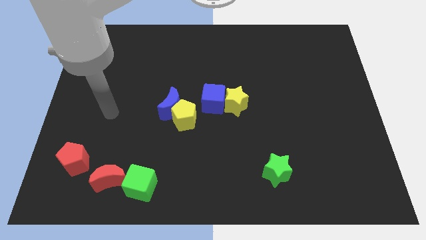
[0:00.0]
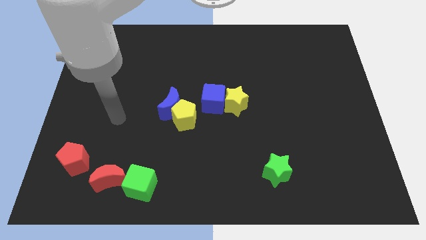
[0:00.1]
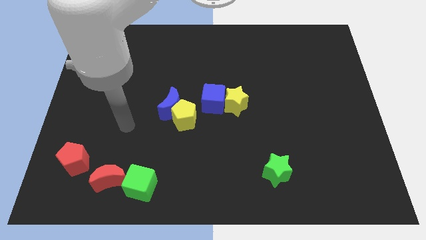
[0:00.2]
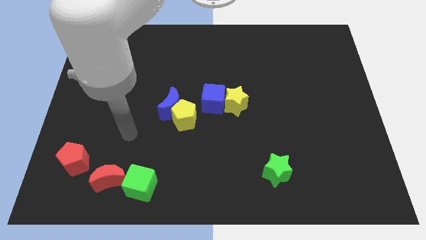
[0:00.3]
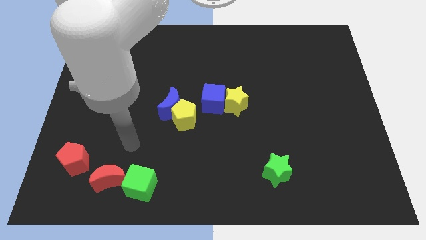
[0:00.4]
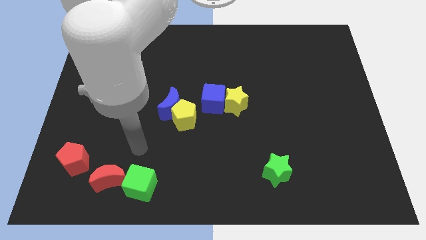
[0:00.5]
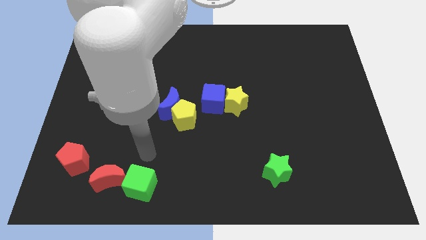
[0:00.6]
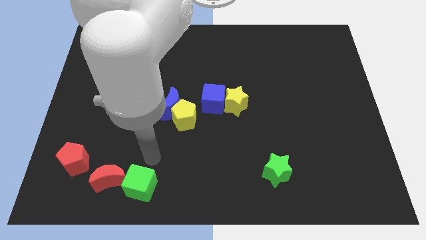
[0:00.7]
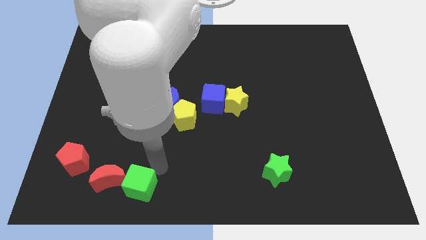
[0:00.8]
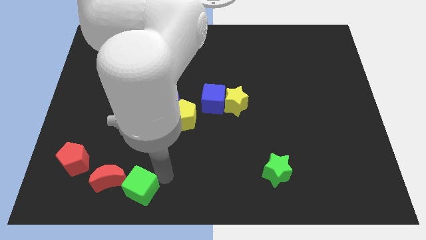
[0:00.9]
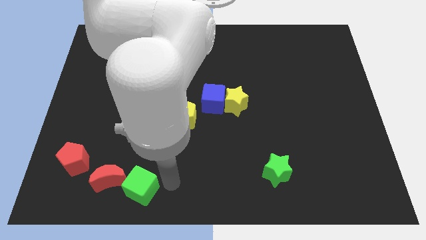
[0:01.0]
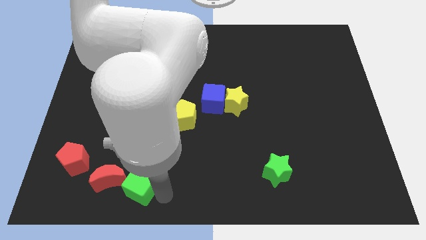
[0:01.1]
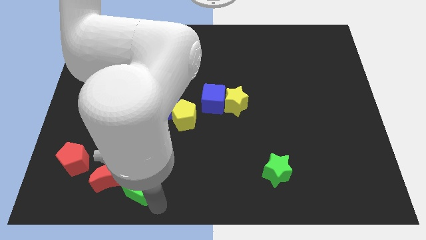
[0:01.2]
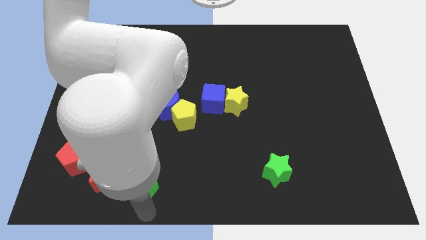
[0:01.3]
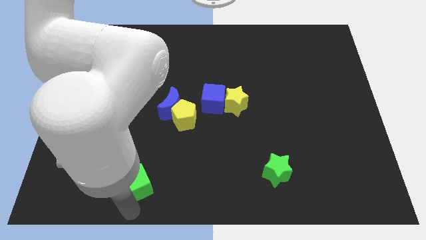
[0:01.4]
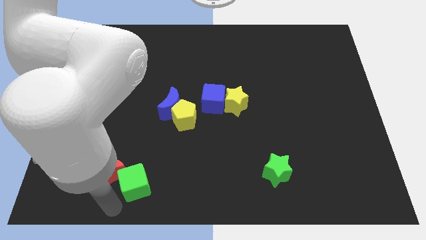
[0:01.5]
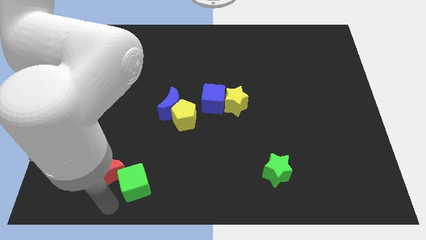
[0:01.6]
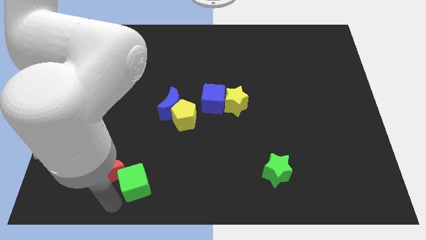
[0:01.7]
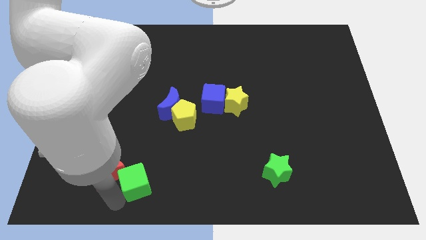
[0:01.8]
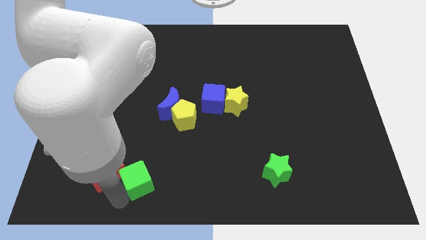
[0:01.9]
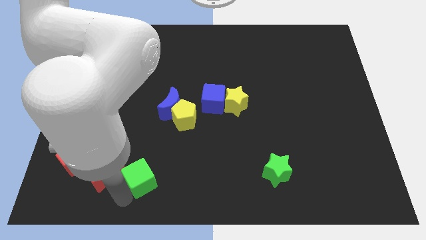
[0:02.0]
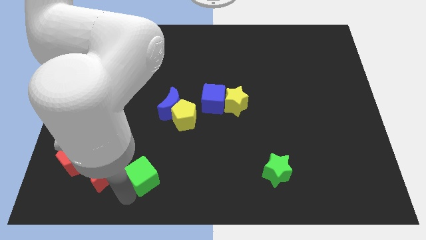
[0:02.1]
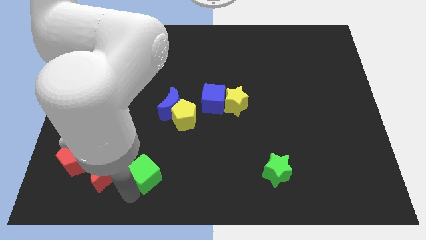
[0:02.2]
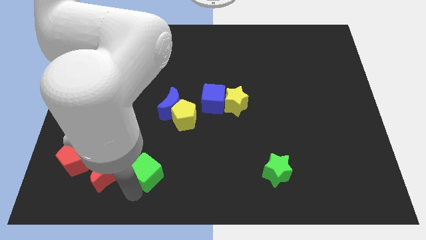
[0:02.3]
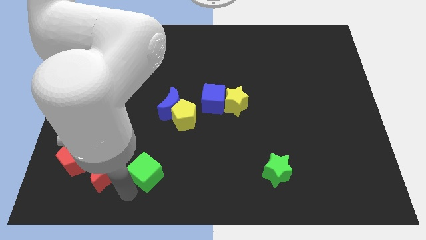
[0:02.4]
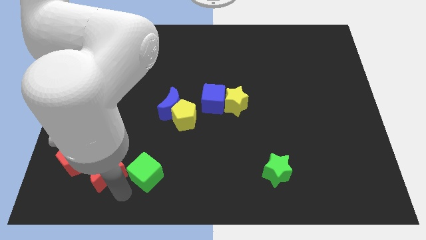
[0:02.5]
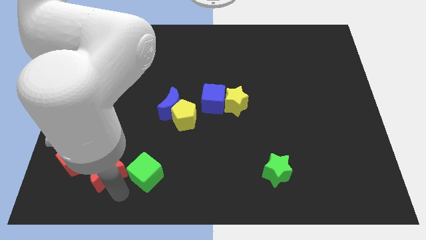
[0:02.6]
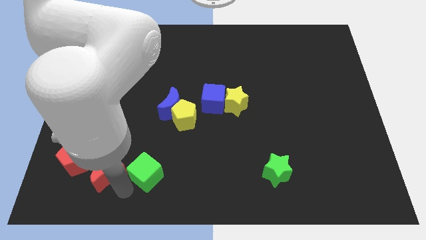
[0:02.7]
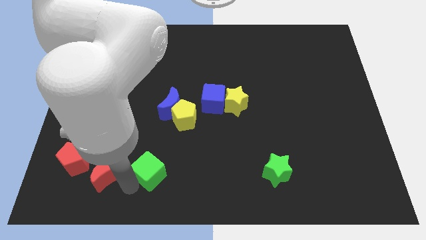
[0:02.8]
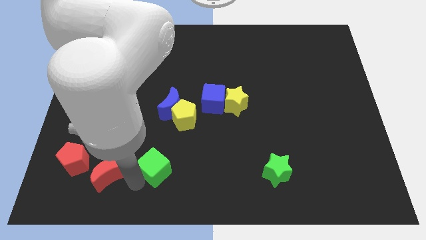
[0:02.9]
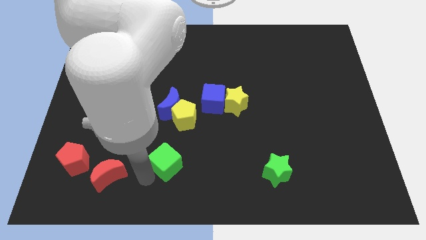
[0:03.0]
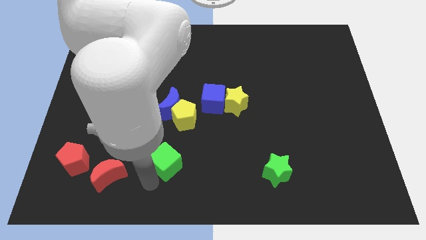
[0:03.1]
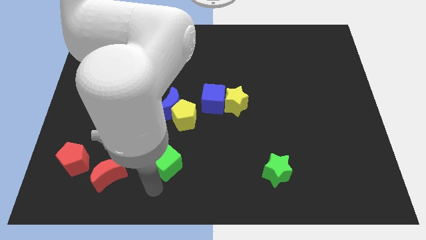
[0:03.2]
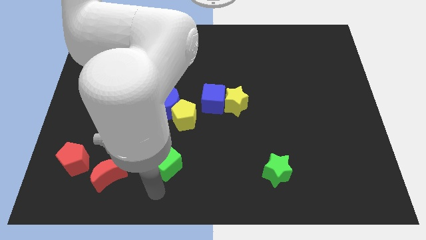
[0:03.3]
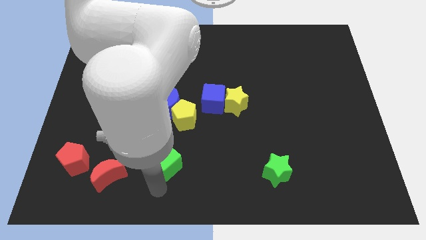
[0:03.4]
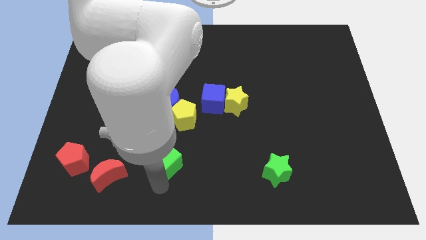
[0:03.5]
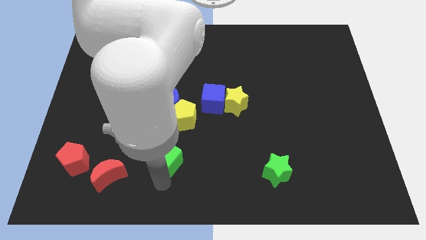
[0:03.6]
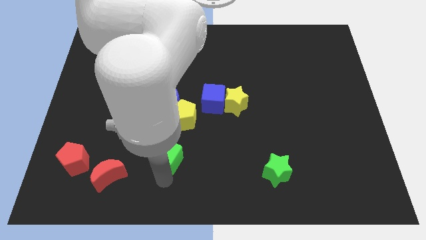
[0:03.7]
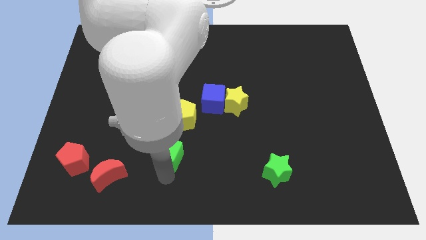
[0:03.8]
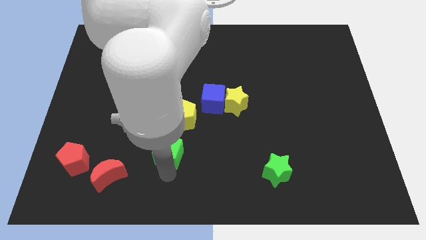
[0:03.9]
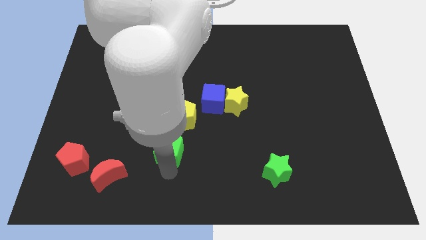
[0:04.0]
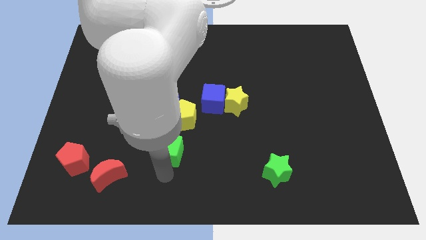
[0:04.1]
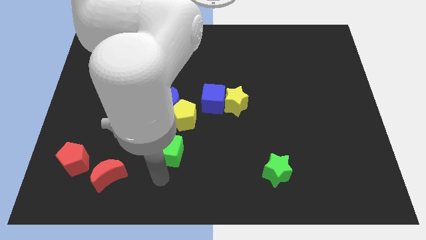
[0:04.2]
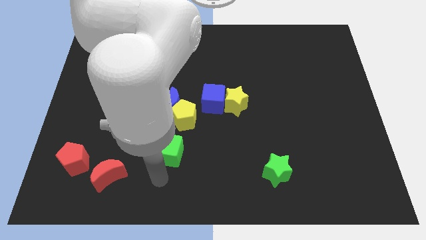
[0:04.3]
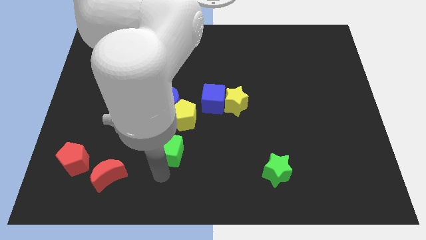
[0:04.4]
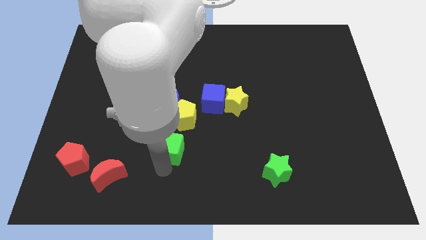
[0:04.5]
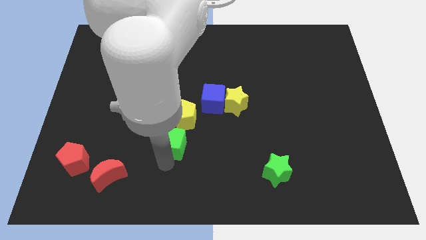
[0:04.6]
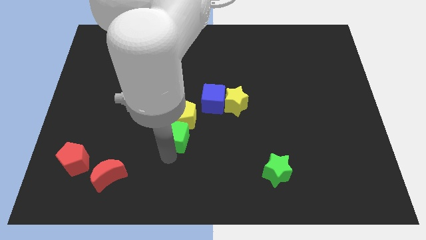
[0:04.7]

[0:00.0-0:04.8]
push the green cube towards the yellow pentagon

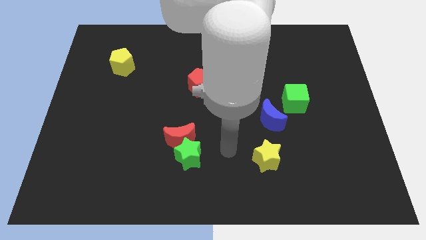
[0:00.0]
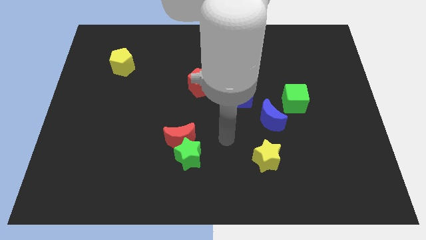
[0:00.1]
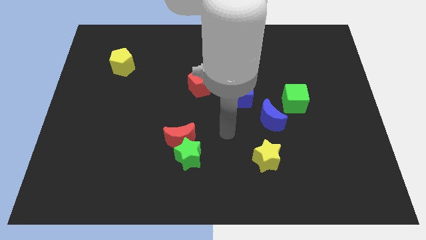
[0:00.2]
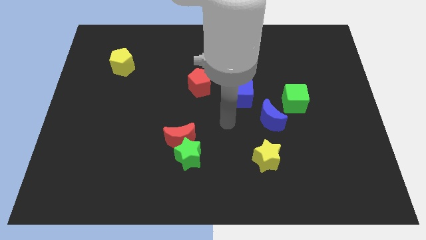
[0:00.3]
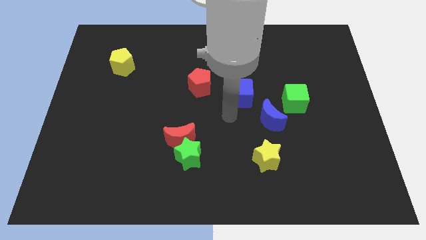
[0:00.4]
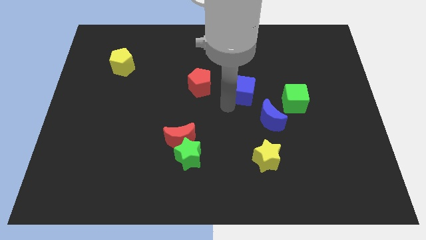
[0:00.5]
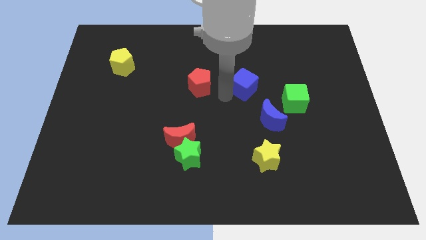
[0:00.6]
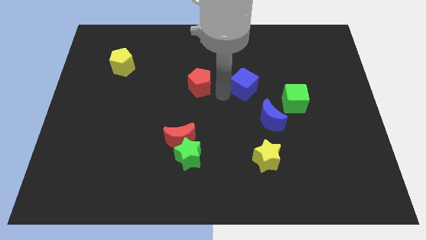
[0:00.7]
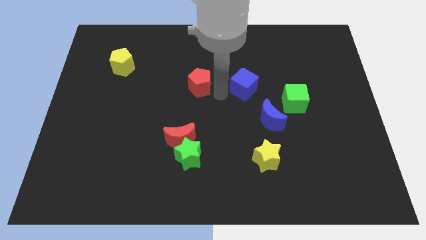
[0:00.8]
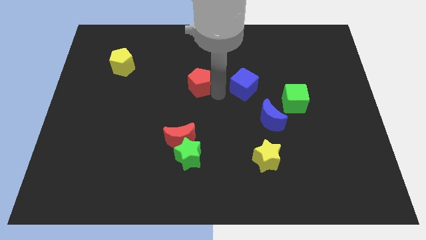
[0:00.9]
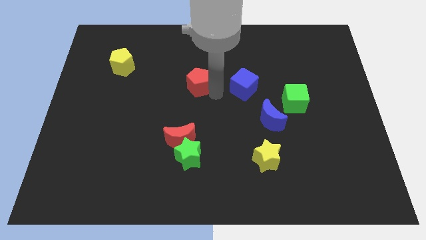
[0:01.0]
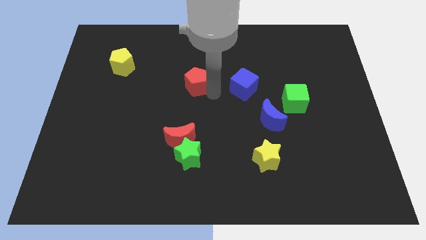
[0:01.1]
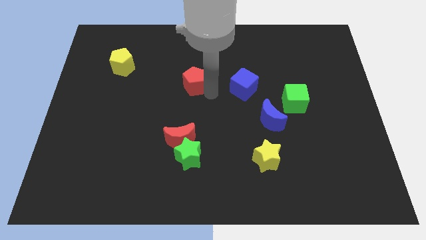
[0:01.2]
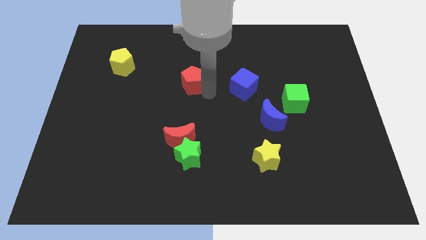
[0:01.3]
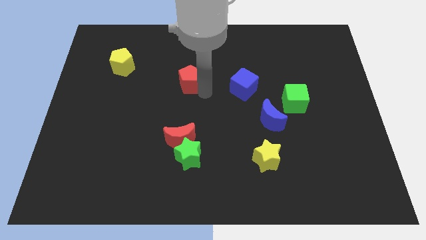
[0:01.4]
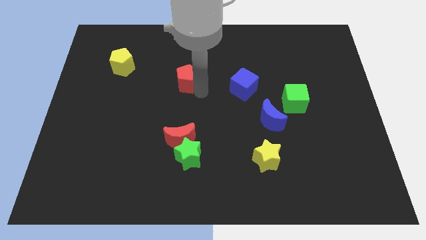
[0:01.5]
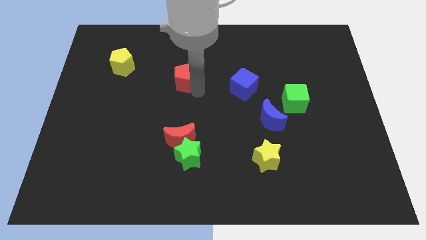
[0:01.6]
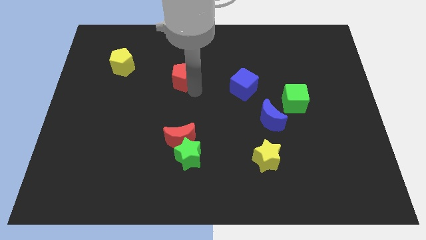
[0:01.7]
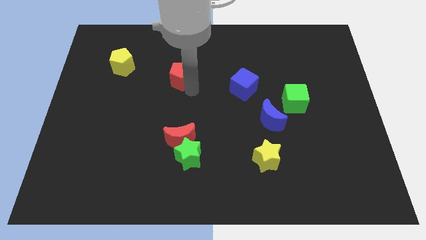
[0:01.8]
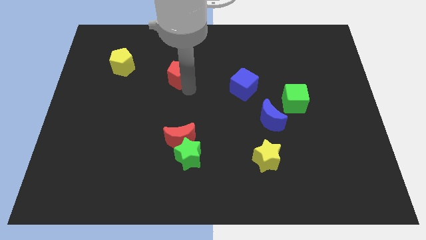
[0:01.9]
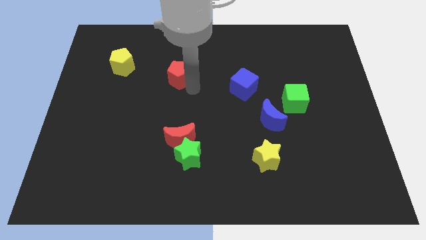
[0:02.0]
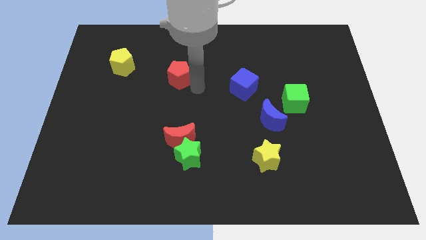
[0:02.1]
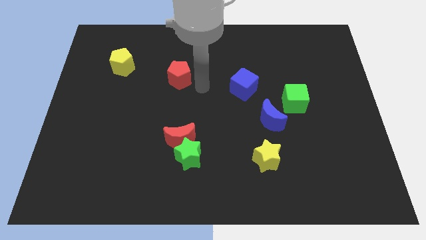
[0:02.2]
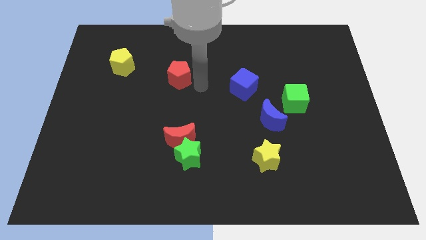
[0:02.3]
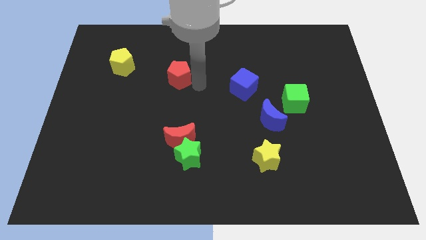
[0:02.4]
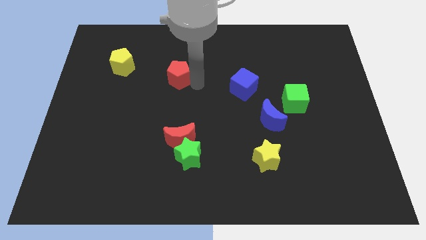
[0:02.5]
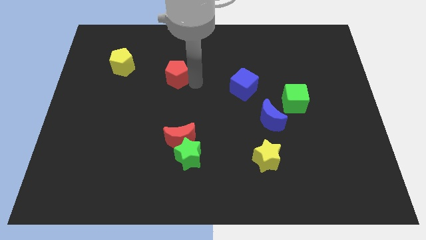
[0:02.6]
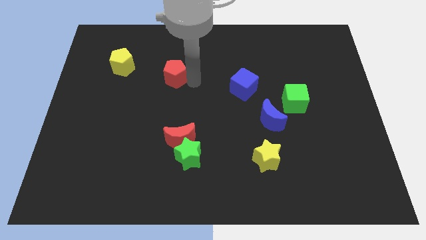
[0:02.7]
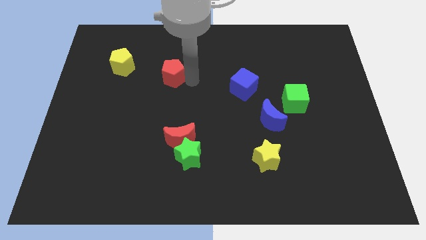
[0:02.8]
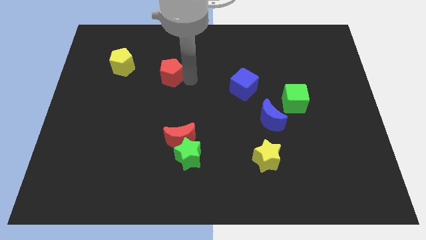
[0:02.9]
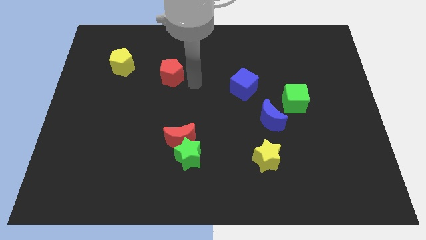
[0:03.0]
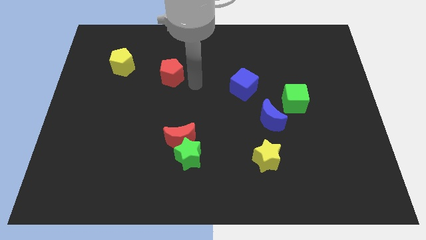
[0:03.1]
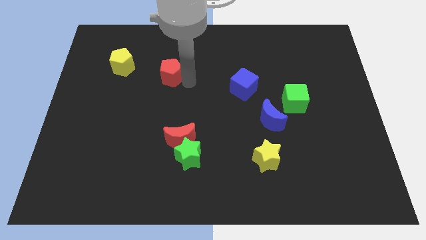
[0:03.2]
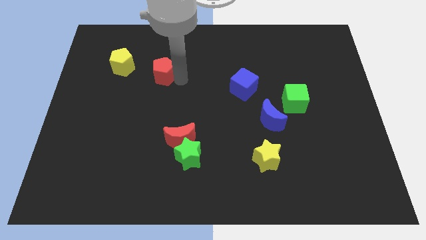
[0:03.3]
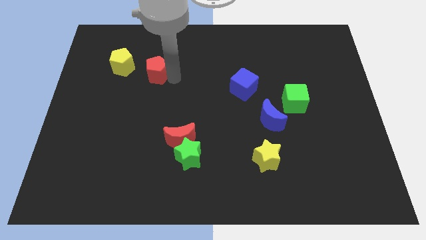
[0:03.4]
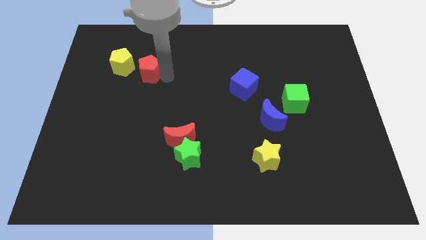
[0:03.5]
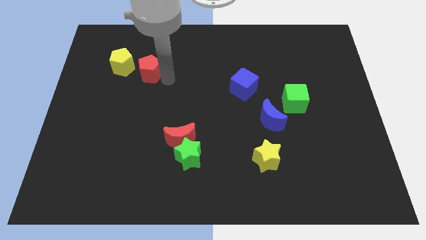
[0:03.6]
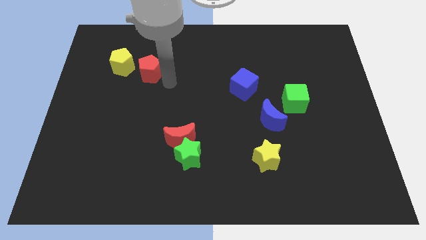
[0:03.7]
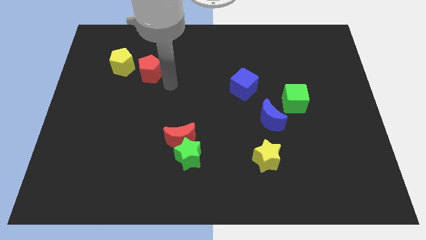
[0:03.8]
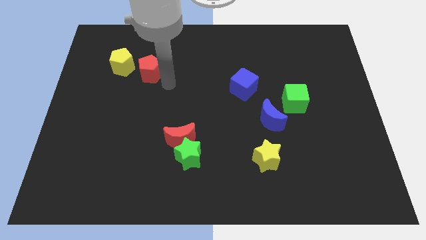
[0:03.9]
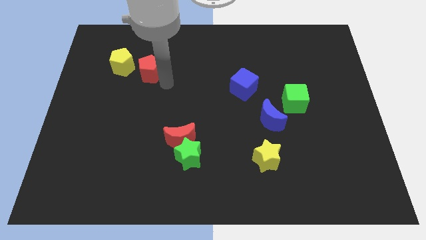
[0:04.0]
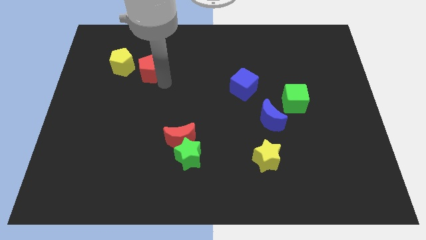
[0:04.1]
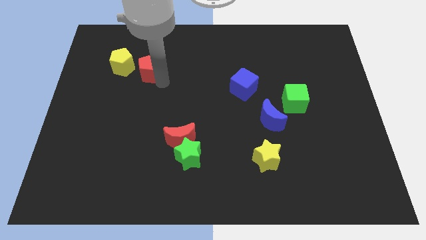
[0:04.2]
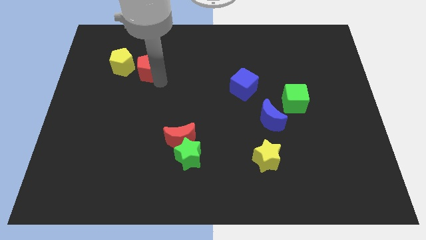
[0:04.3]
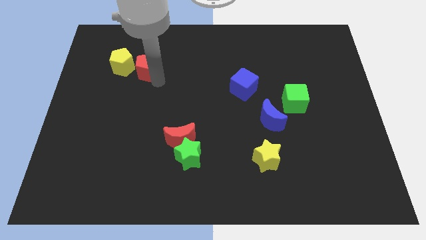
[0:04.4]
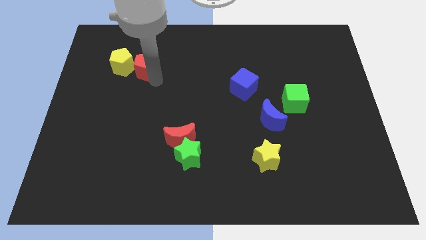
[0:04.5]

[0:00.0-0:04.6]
push the red pentagon close to the yellow pentagon
